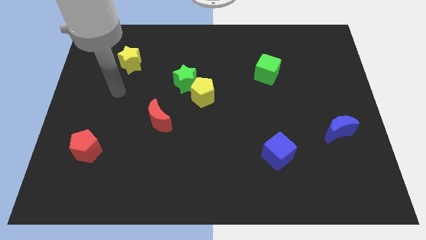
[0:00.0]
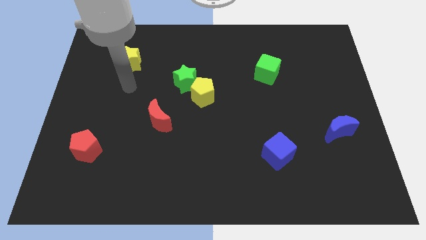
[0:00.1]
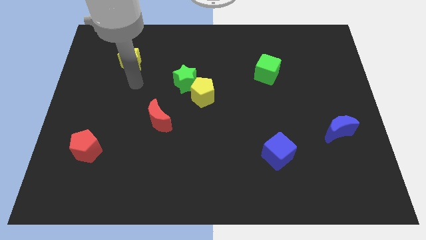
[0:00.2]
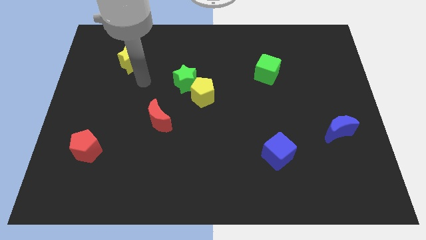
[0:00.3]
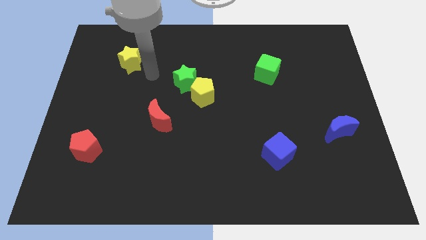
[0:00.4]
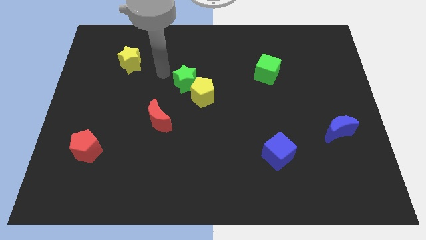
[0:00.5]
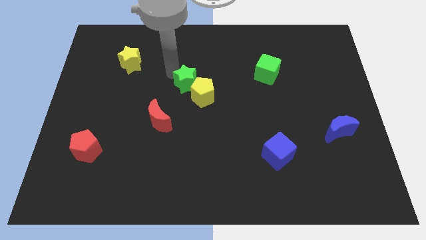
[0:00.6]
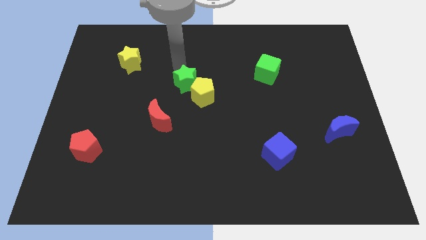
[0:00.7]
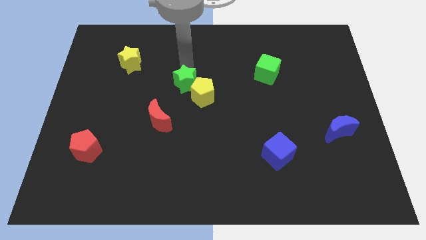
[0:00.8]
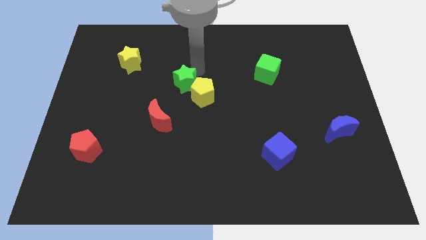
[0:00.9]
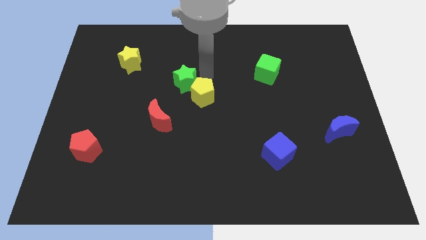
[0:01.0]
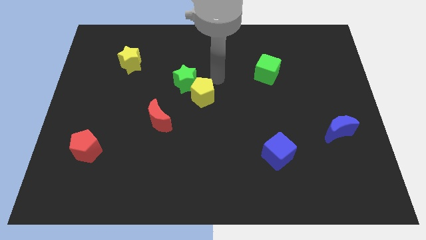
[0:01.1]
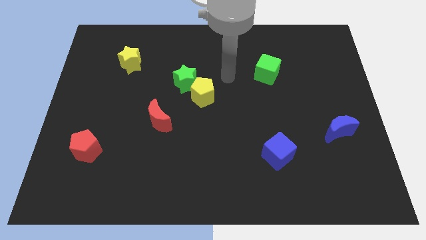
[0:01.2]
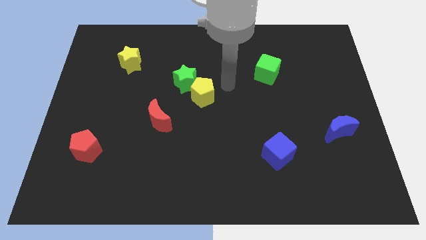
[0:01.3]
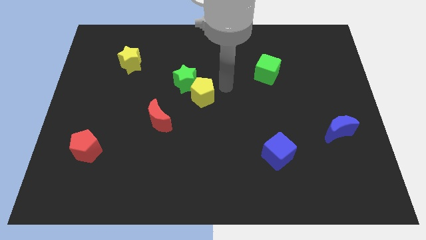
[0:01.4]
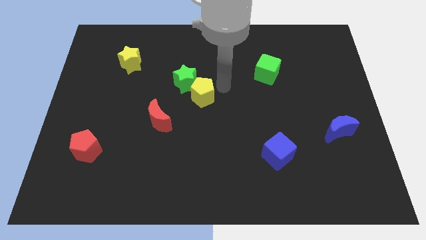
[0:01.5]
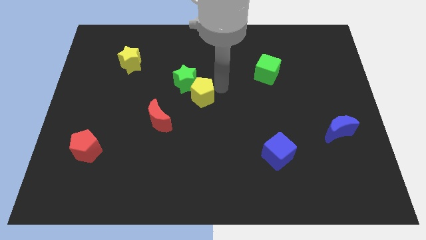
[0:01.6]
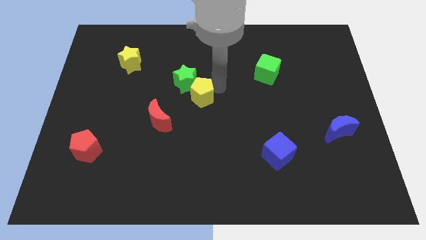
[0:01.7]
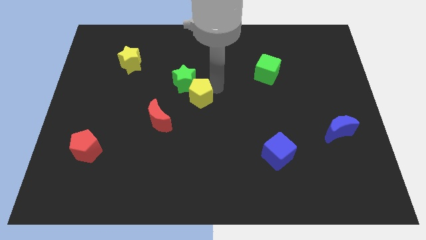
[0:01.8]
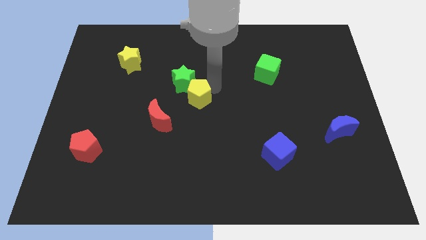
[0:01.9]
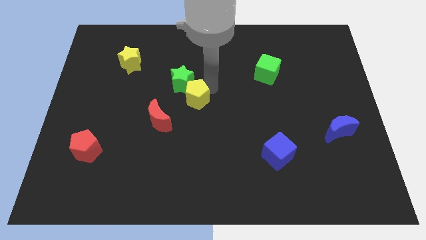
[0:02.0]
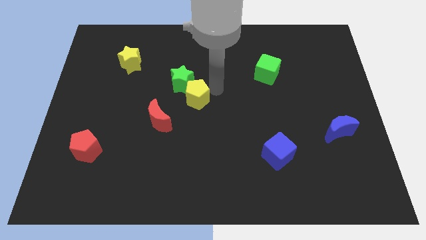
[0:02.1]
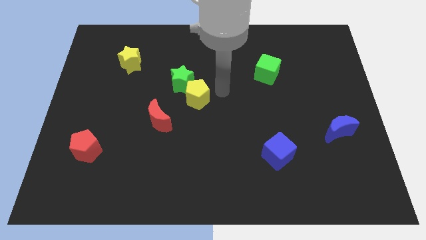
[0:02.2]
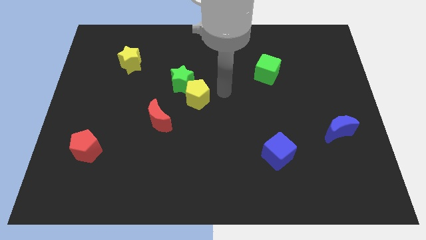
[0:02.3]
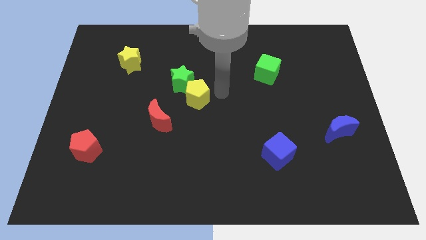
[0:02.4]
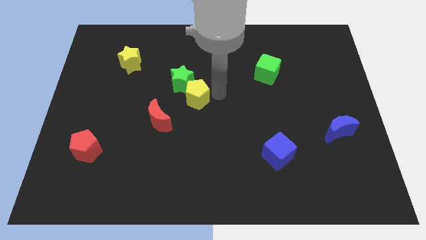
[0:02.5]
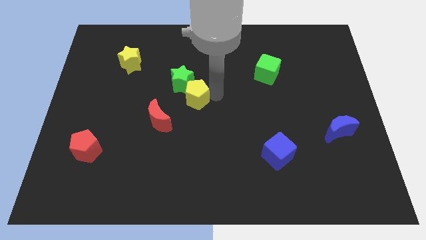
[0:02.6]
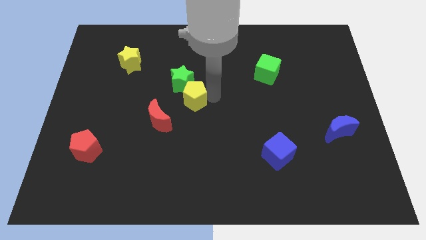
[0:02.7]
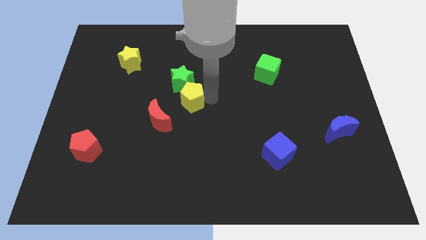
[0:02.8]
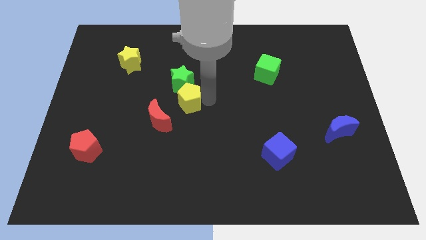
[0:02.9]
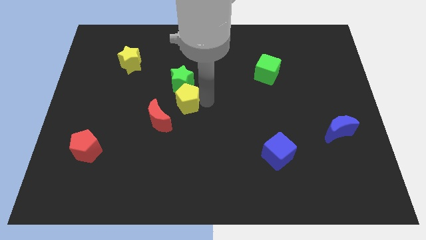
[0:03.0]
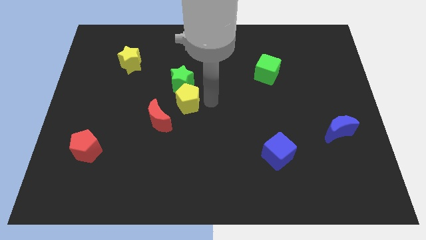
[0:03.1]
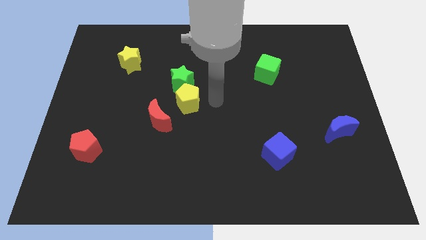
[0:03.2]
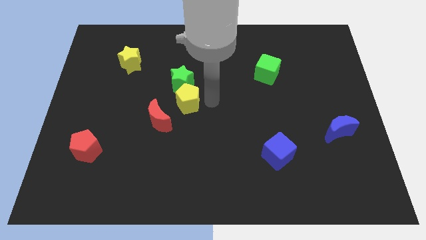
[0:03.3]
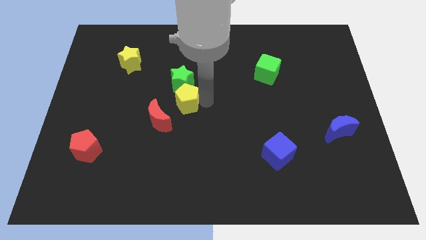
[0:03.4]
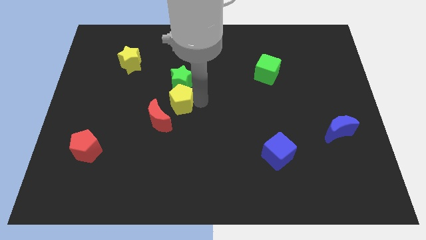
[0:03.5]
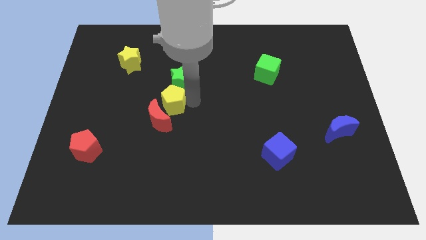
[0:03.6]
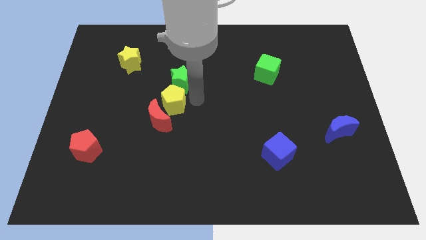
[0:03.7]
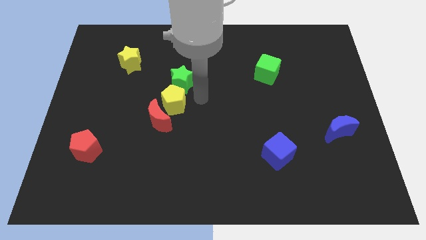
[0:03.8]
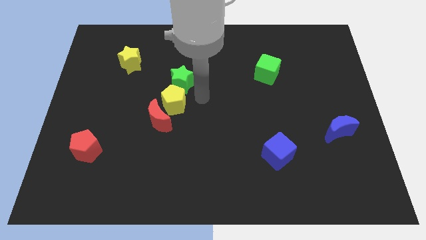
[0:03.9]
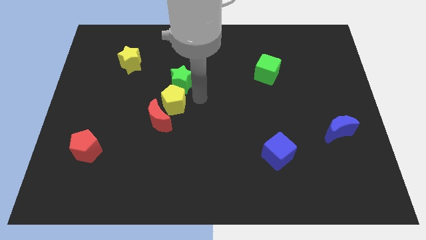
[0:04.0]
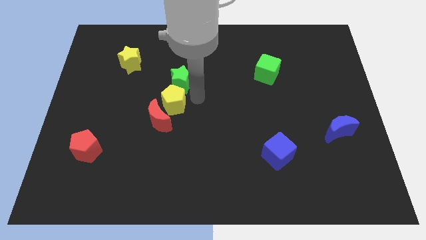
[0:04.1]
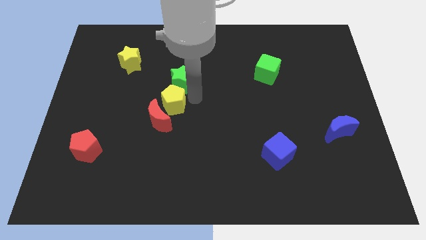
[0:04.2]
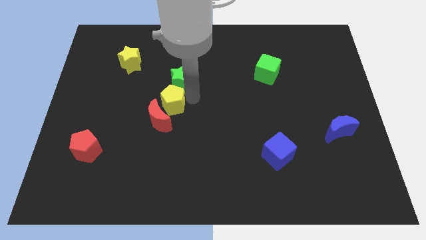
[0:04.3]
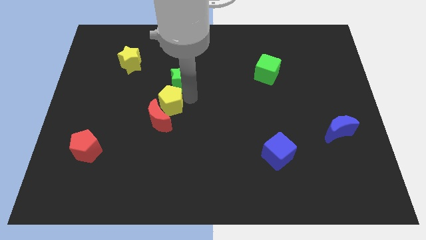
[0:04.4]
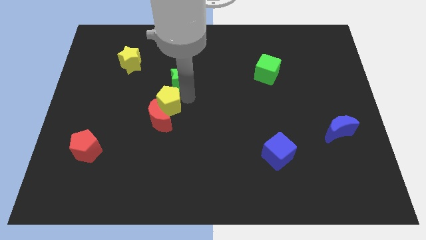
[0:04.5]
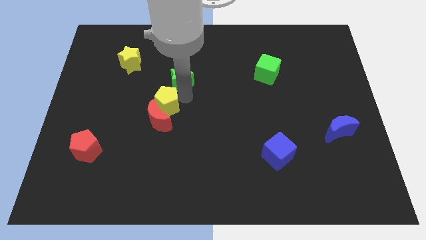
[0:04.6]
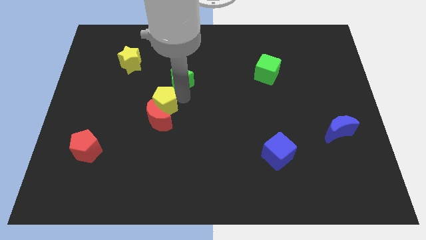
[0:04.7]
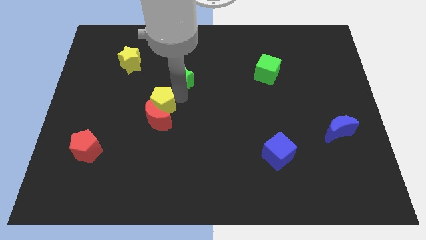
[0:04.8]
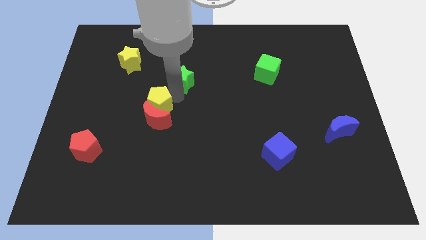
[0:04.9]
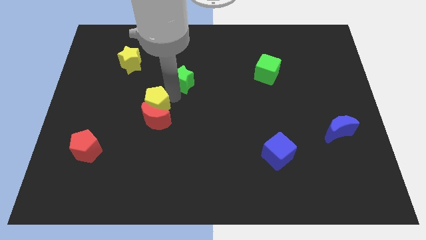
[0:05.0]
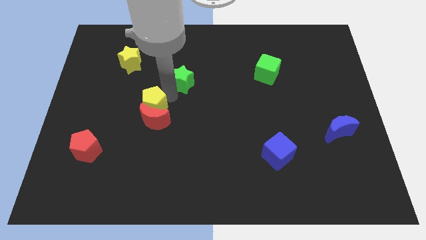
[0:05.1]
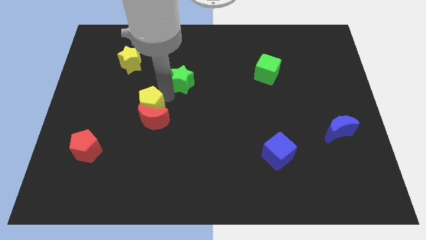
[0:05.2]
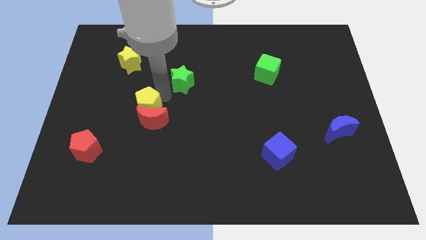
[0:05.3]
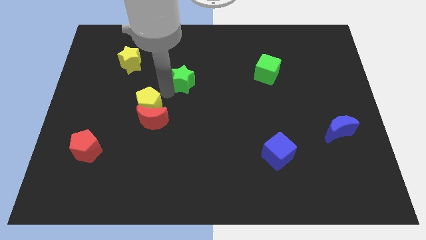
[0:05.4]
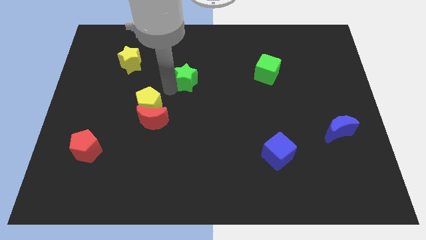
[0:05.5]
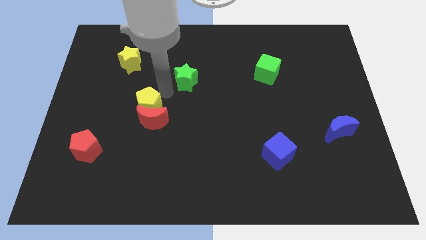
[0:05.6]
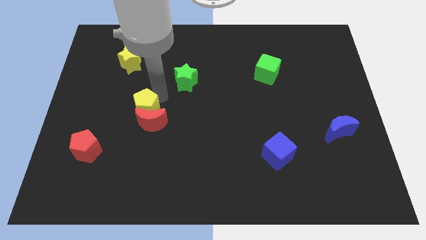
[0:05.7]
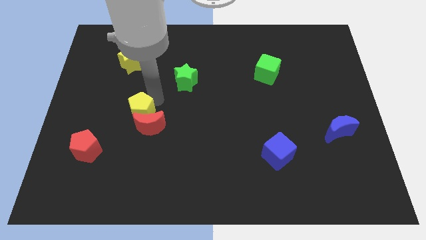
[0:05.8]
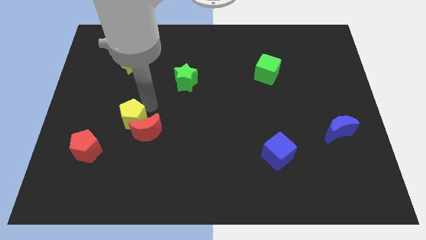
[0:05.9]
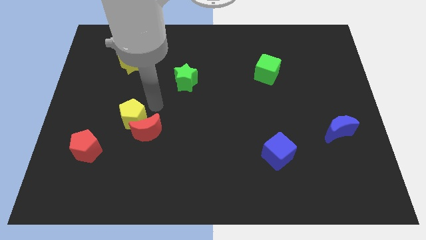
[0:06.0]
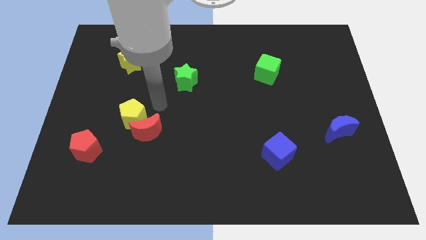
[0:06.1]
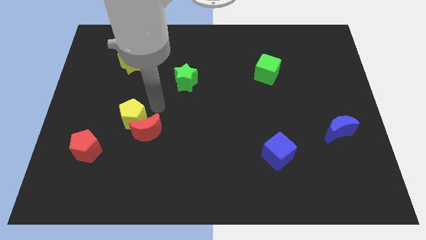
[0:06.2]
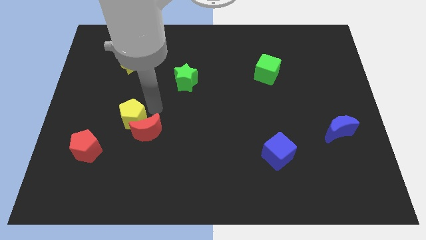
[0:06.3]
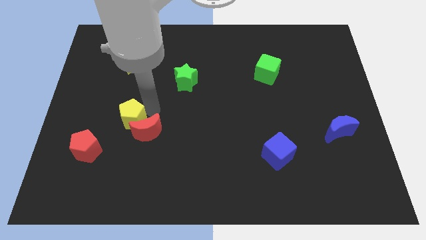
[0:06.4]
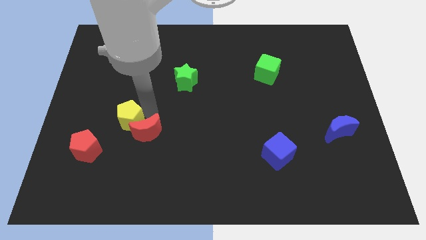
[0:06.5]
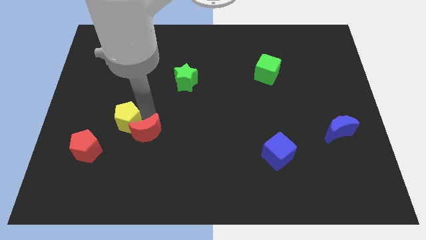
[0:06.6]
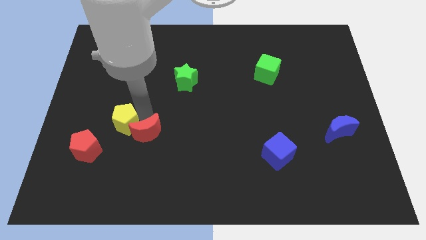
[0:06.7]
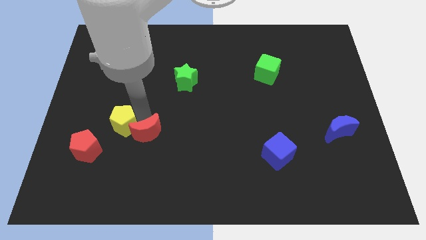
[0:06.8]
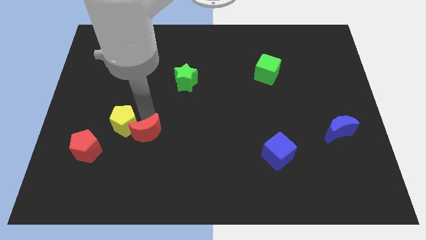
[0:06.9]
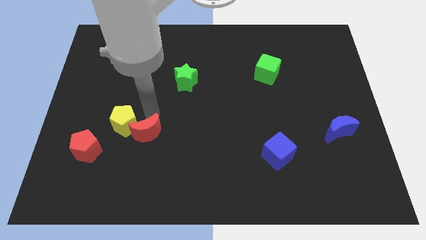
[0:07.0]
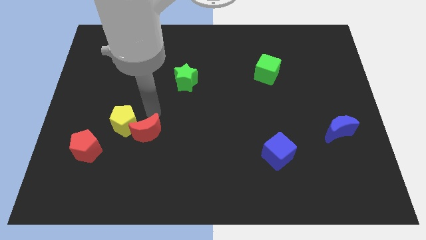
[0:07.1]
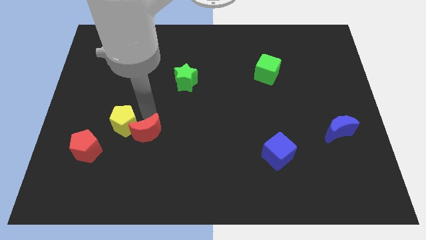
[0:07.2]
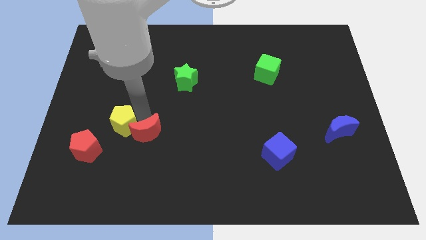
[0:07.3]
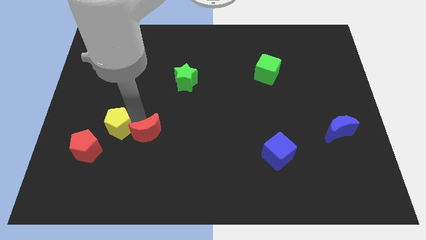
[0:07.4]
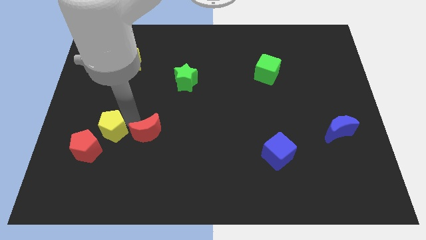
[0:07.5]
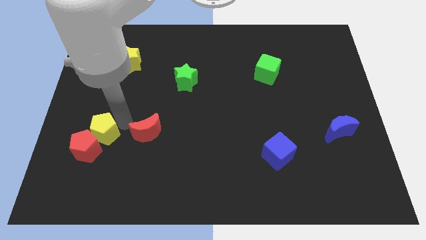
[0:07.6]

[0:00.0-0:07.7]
slide the yellow pentagon close to the red pentagon
